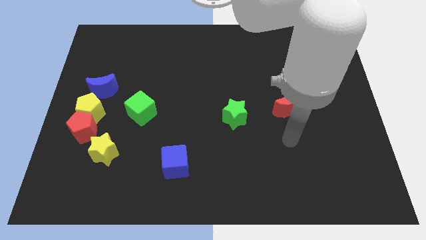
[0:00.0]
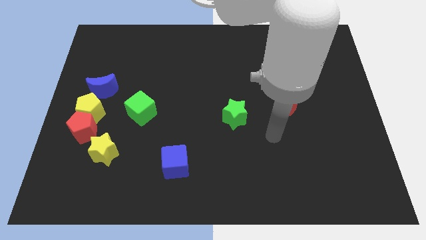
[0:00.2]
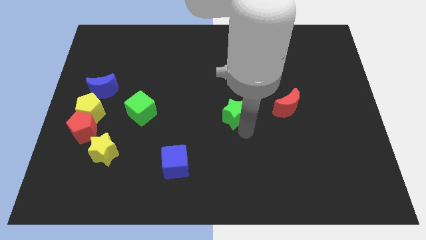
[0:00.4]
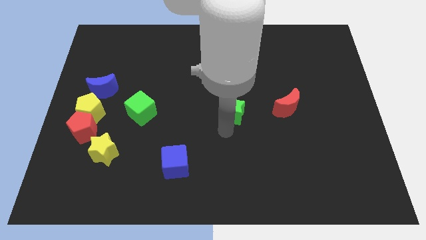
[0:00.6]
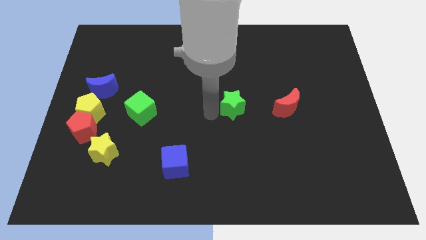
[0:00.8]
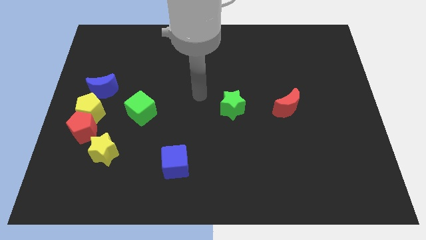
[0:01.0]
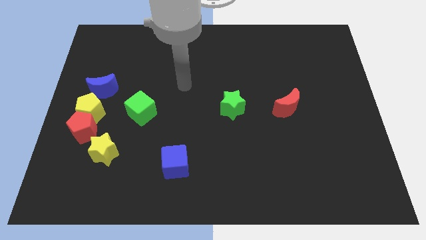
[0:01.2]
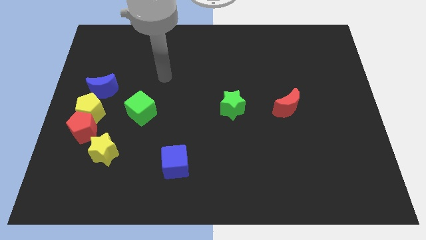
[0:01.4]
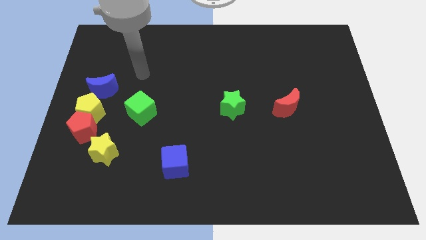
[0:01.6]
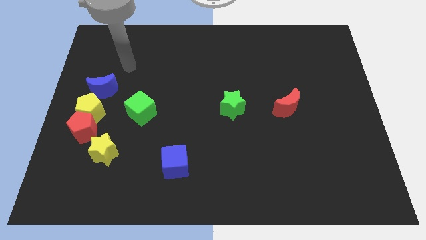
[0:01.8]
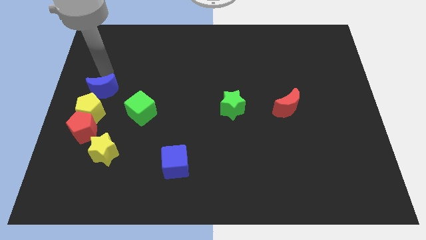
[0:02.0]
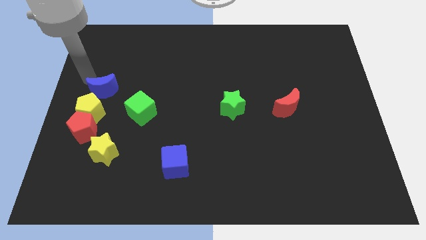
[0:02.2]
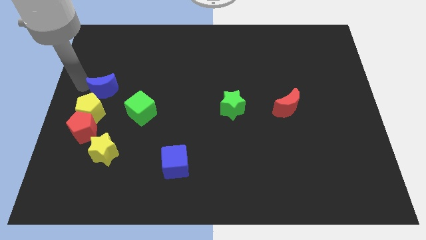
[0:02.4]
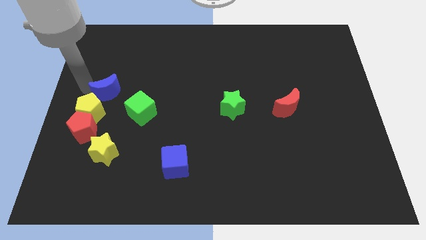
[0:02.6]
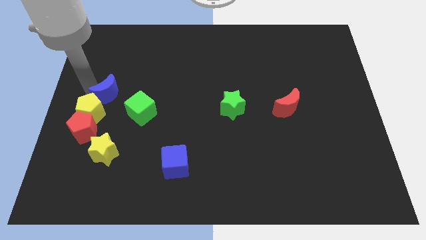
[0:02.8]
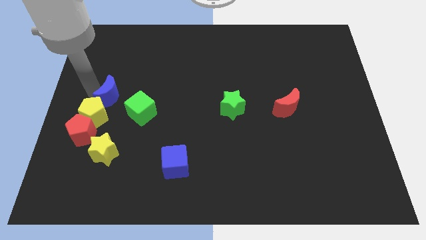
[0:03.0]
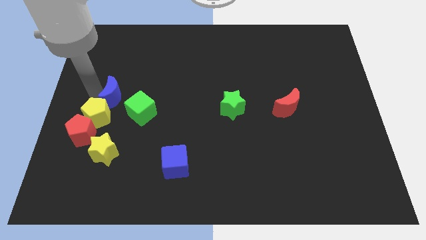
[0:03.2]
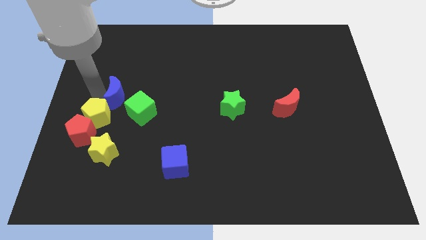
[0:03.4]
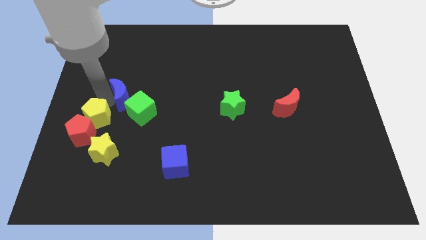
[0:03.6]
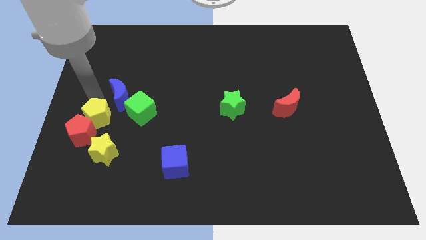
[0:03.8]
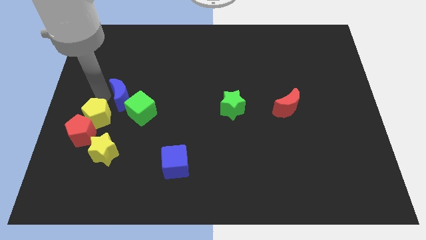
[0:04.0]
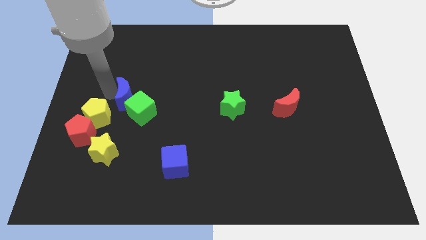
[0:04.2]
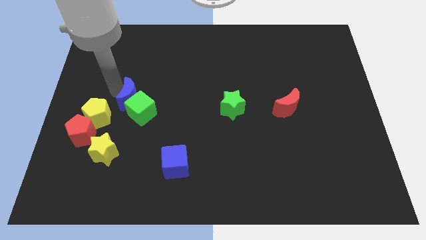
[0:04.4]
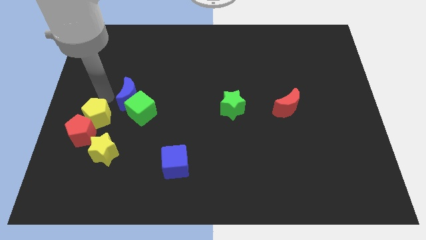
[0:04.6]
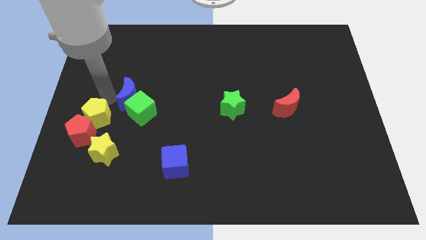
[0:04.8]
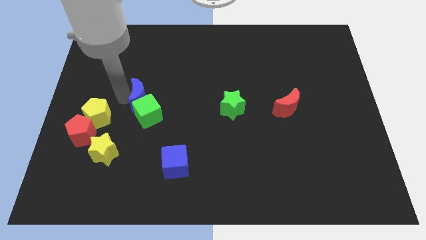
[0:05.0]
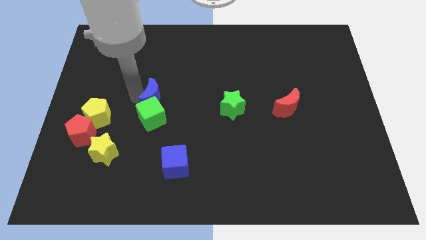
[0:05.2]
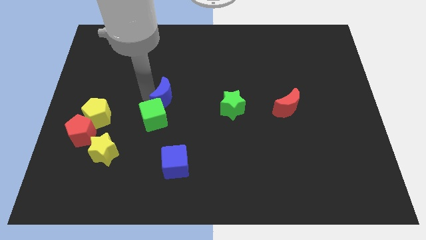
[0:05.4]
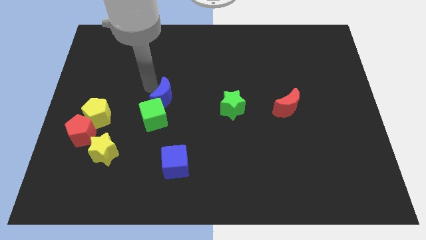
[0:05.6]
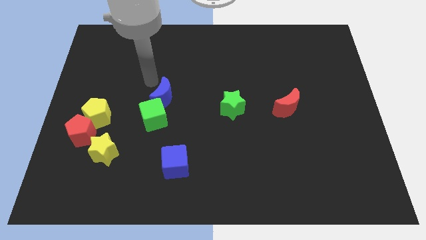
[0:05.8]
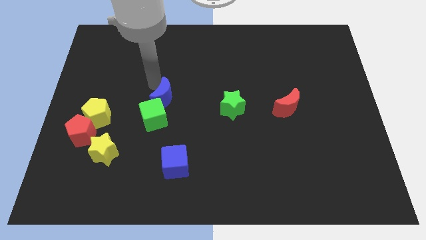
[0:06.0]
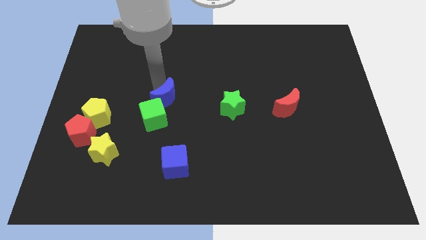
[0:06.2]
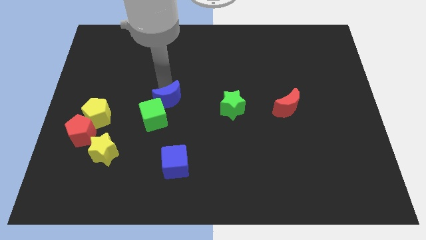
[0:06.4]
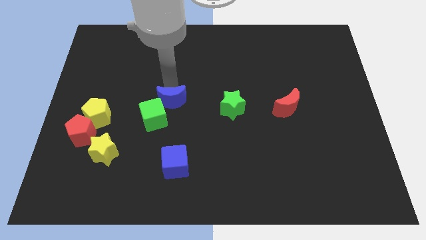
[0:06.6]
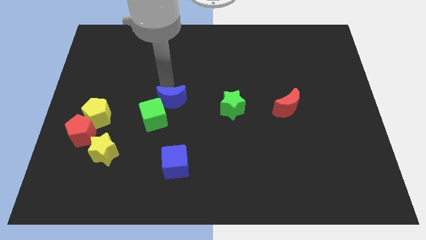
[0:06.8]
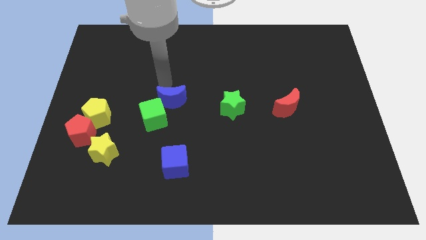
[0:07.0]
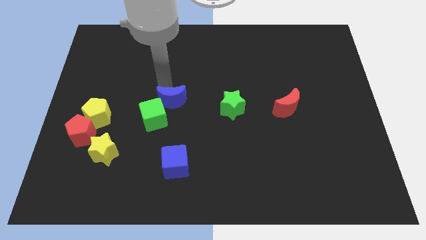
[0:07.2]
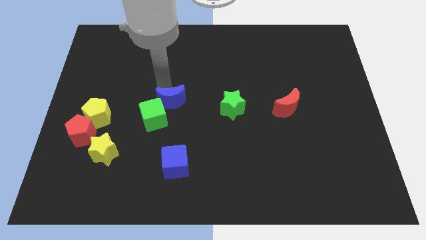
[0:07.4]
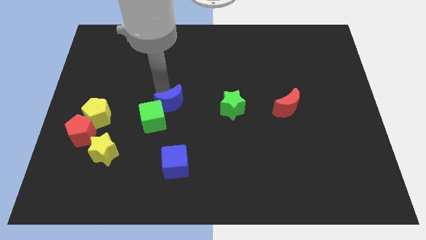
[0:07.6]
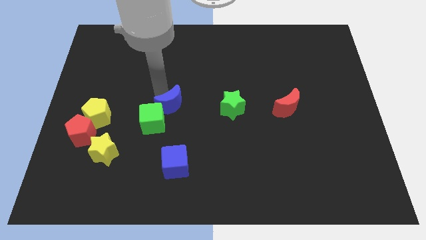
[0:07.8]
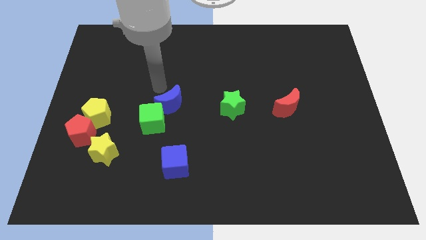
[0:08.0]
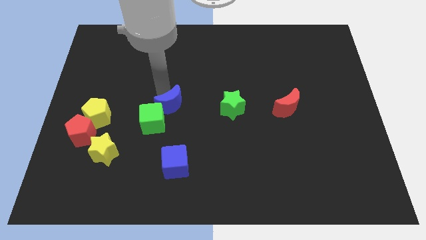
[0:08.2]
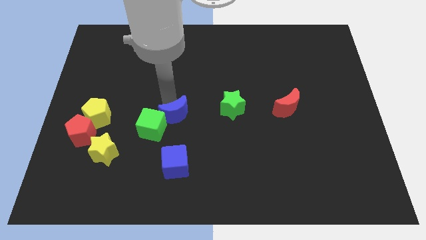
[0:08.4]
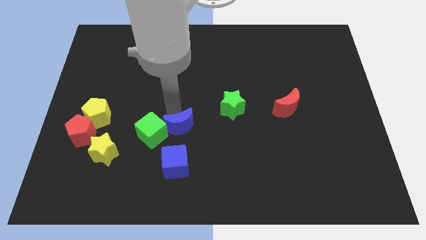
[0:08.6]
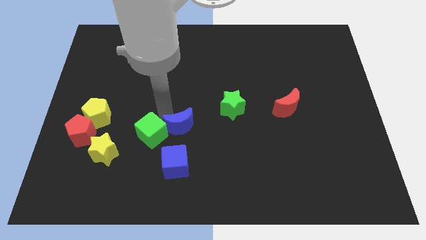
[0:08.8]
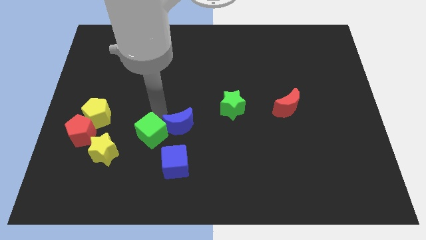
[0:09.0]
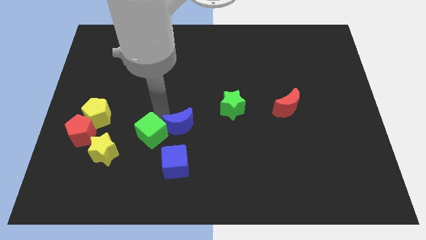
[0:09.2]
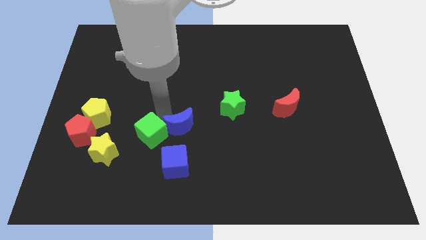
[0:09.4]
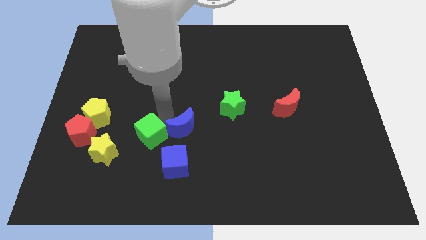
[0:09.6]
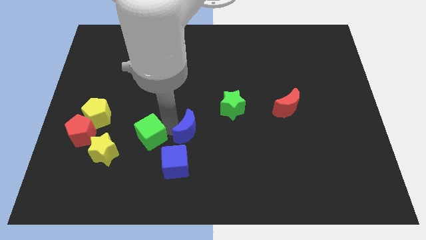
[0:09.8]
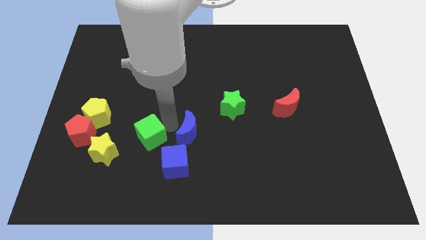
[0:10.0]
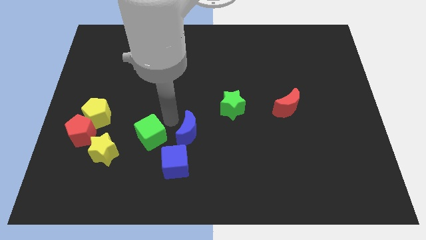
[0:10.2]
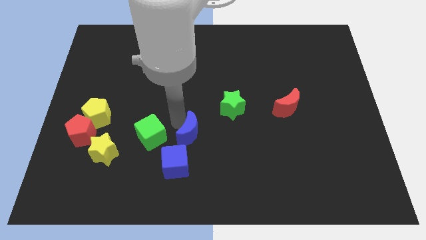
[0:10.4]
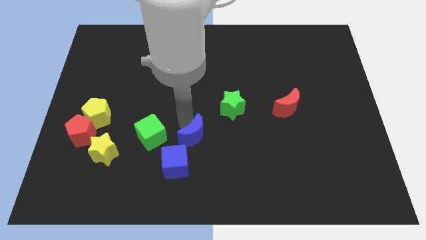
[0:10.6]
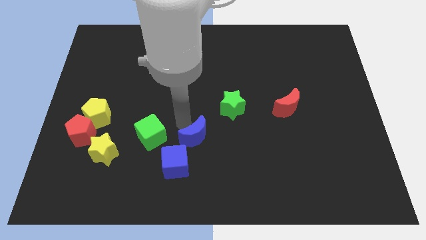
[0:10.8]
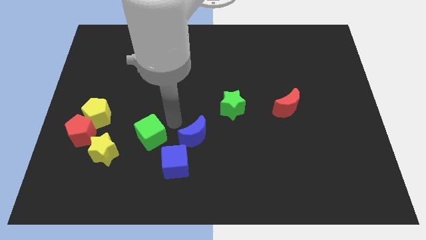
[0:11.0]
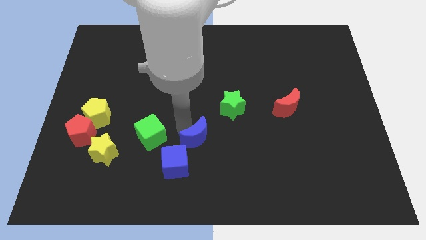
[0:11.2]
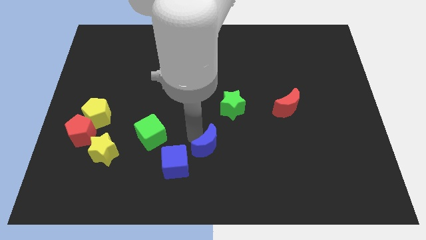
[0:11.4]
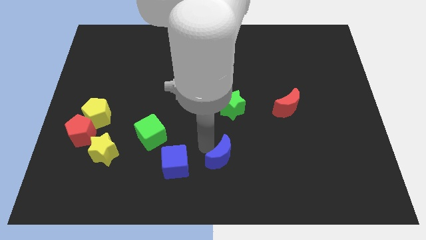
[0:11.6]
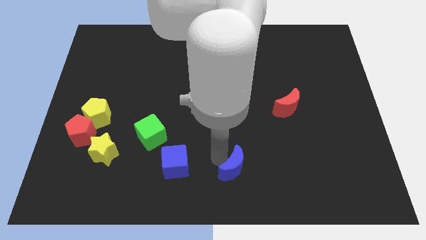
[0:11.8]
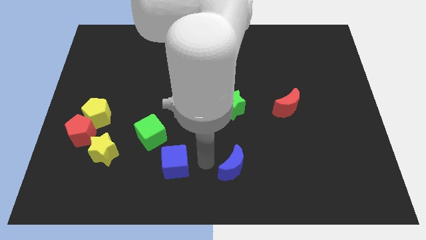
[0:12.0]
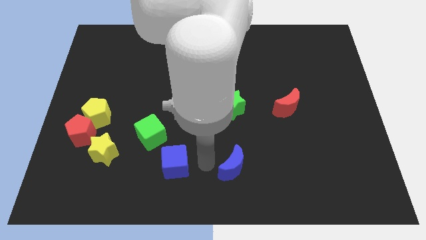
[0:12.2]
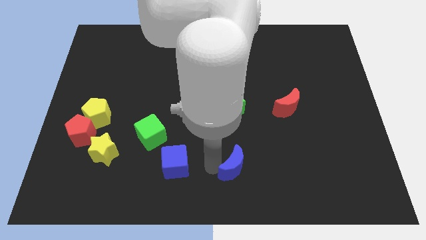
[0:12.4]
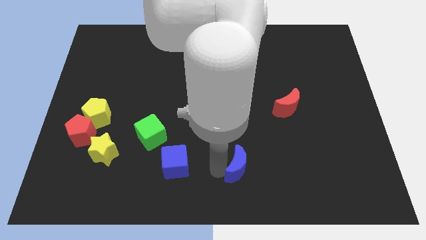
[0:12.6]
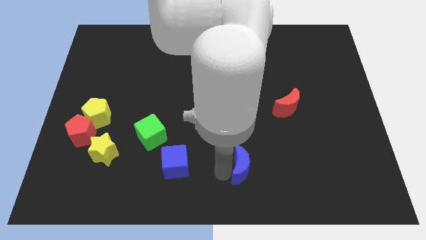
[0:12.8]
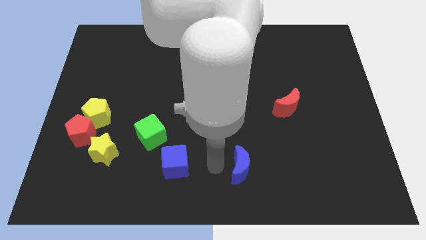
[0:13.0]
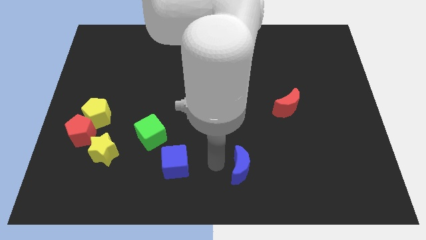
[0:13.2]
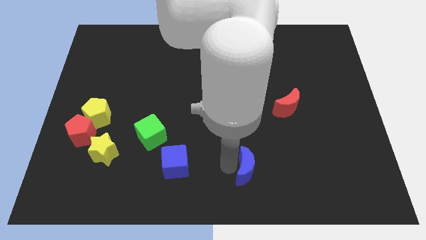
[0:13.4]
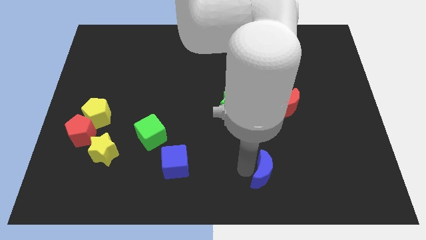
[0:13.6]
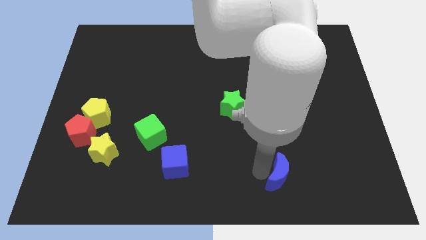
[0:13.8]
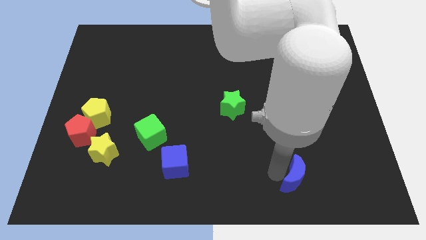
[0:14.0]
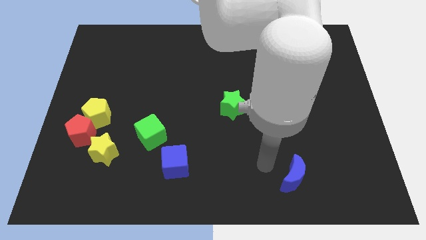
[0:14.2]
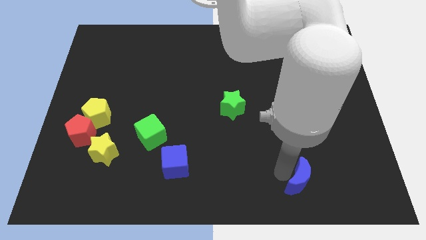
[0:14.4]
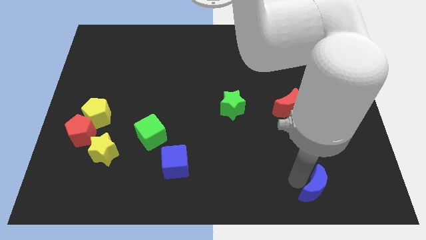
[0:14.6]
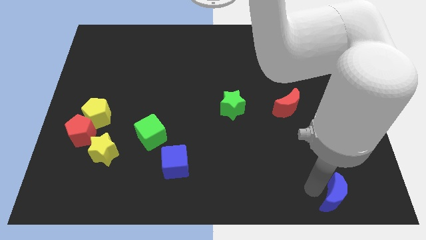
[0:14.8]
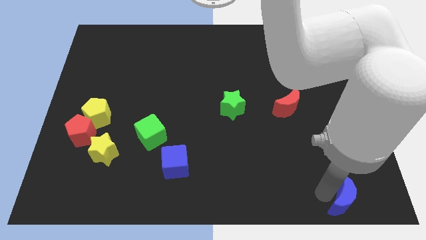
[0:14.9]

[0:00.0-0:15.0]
push the blue moon to the bottom right corner
